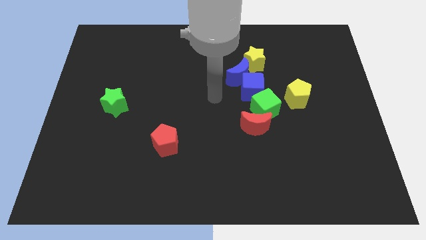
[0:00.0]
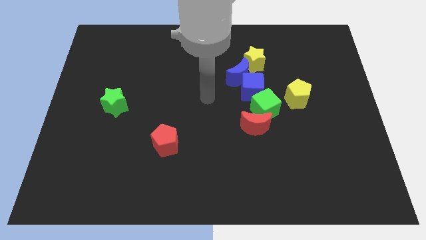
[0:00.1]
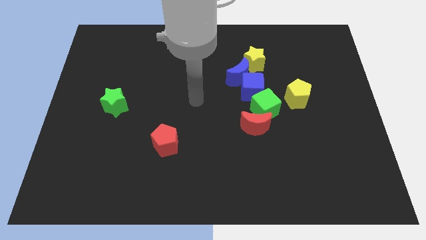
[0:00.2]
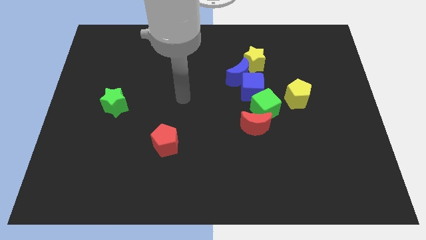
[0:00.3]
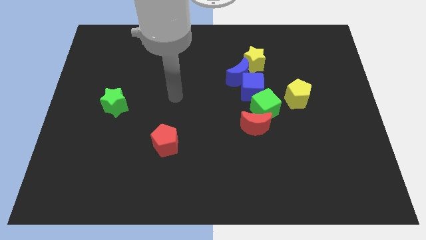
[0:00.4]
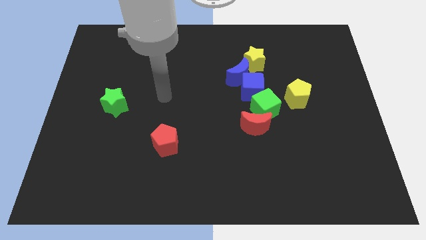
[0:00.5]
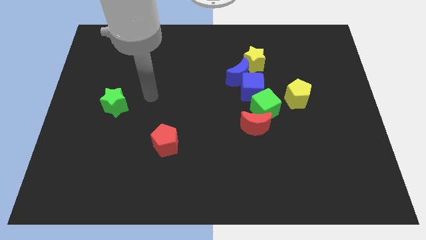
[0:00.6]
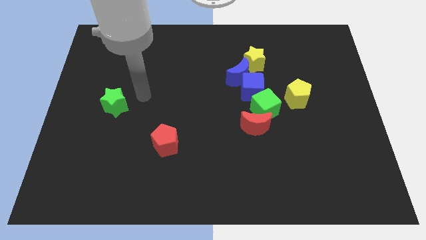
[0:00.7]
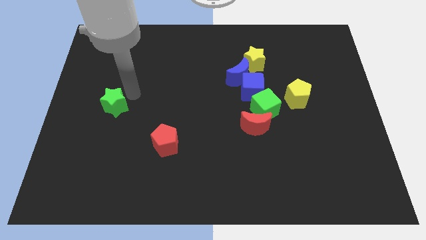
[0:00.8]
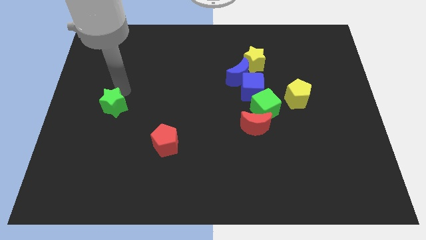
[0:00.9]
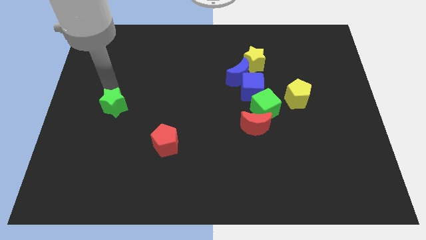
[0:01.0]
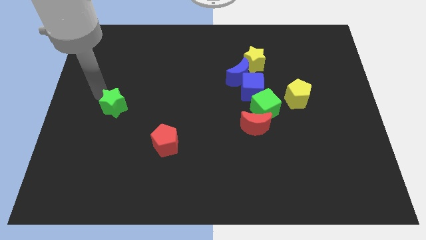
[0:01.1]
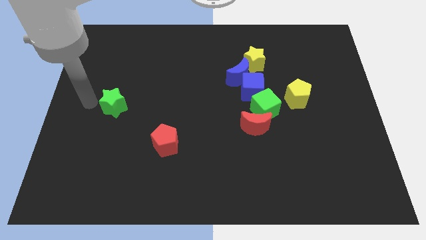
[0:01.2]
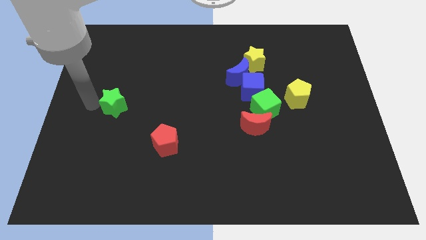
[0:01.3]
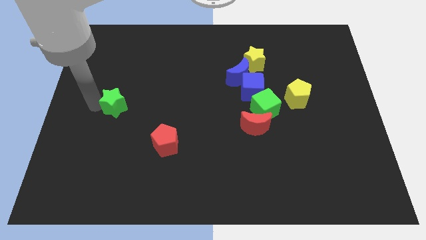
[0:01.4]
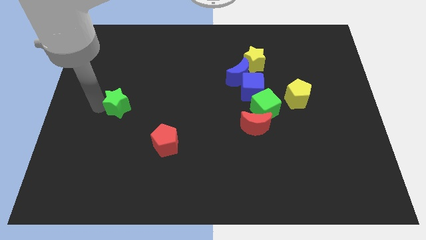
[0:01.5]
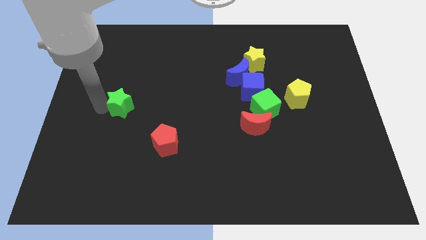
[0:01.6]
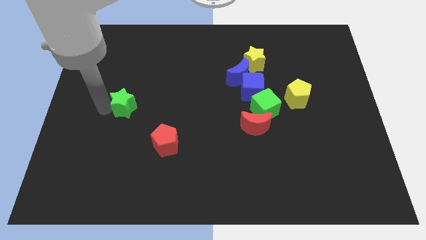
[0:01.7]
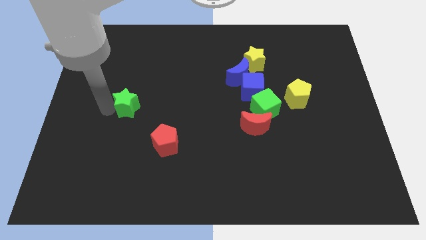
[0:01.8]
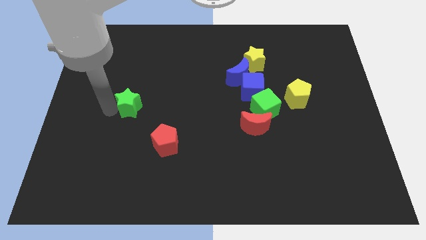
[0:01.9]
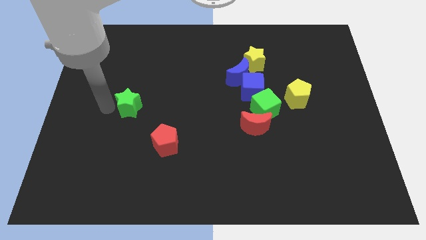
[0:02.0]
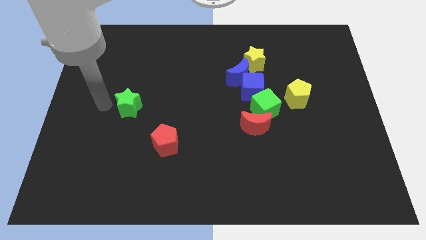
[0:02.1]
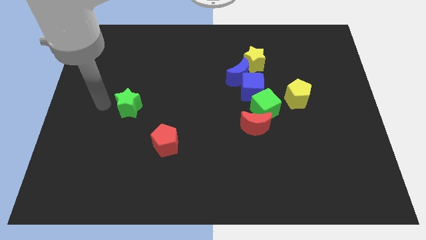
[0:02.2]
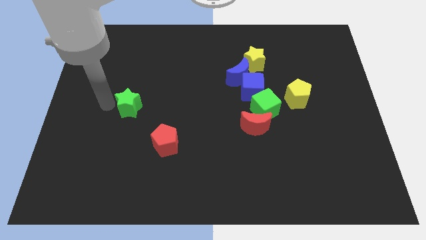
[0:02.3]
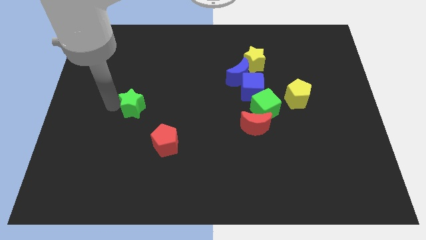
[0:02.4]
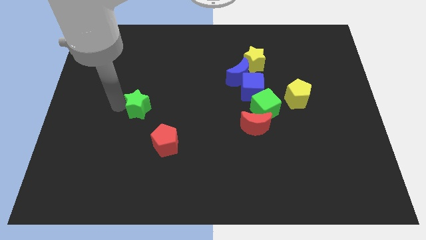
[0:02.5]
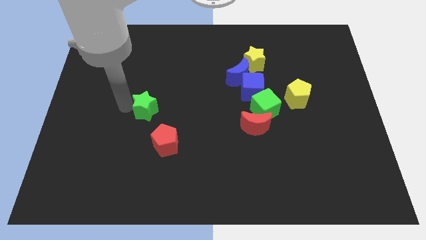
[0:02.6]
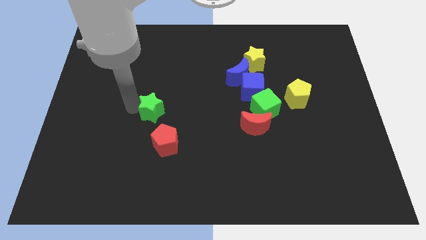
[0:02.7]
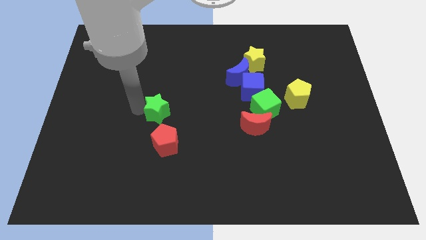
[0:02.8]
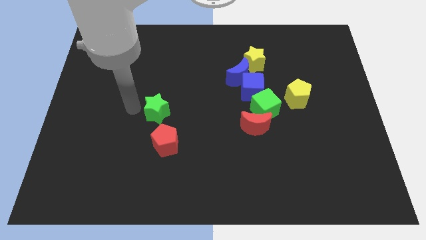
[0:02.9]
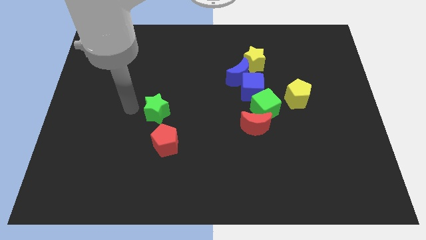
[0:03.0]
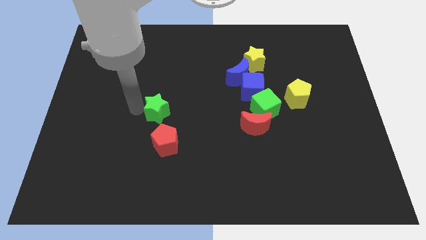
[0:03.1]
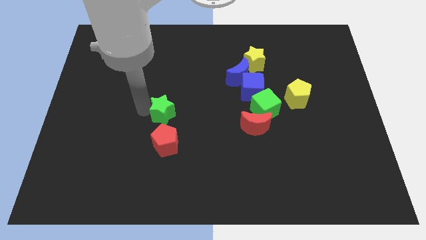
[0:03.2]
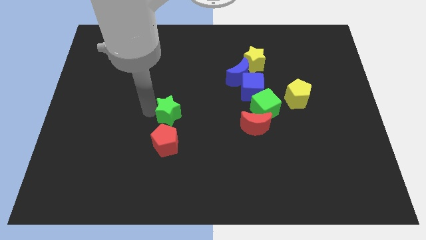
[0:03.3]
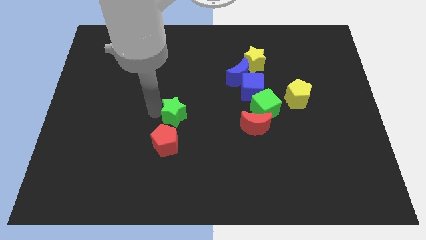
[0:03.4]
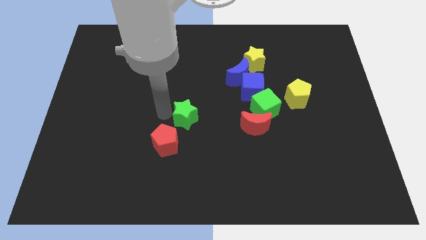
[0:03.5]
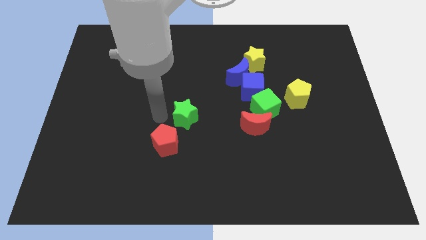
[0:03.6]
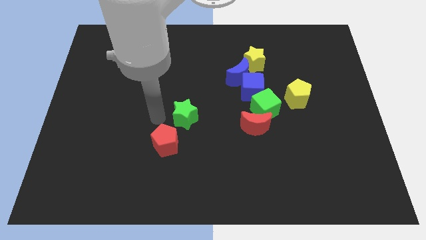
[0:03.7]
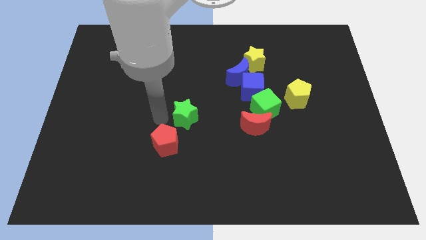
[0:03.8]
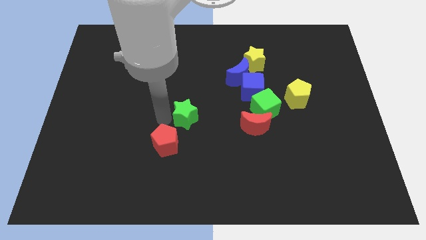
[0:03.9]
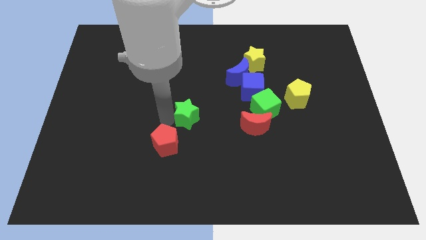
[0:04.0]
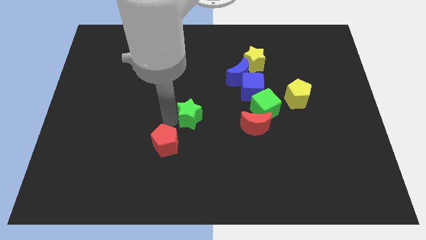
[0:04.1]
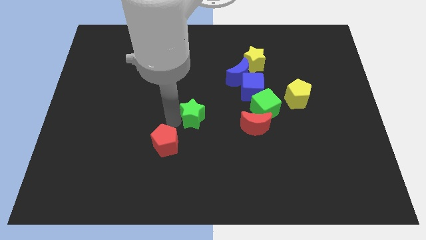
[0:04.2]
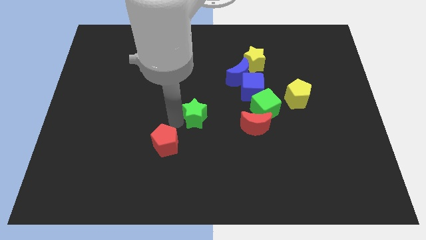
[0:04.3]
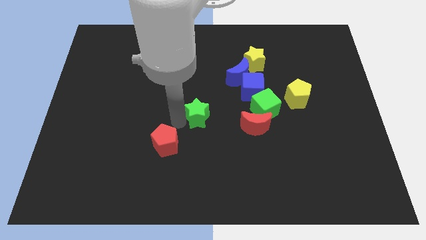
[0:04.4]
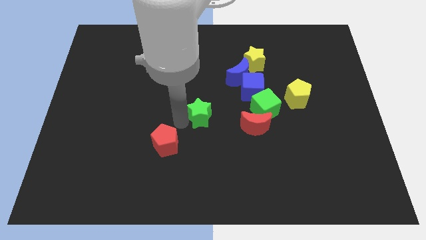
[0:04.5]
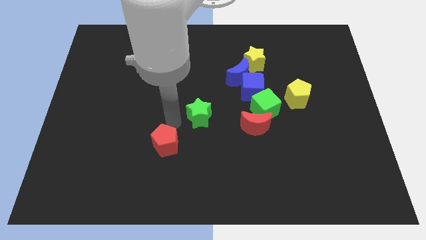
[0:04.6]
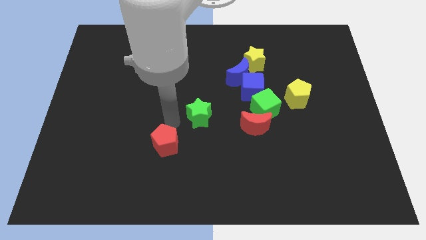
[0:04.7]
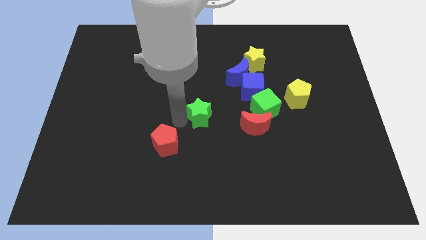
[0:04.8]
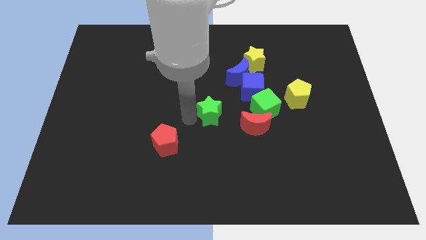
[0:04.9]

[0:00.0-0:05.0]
put the green star to the top left side of the red moon

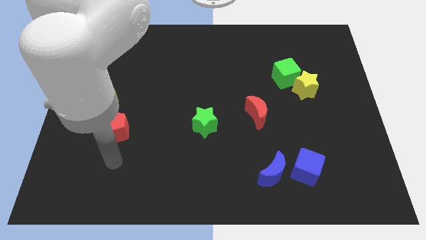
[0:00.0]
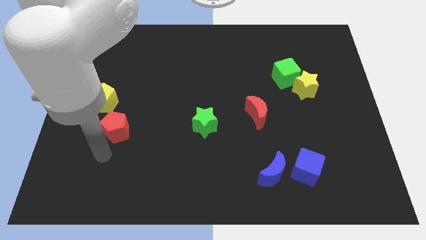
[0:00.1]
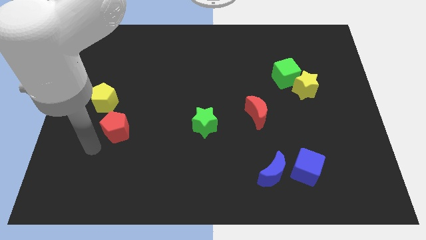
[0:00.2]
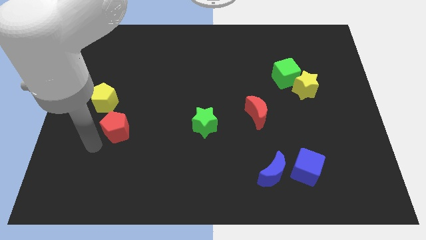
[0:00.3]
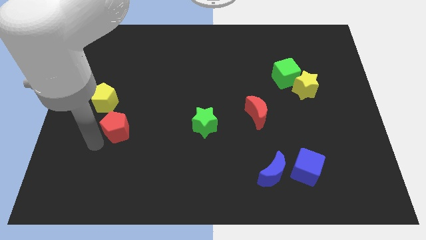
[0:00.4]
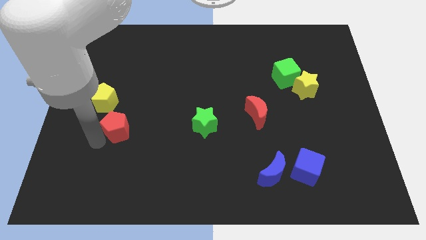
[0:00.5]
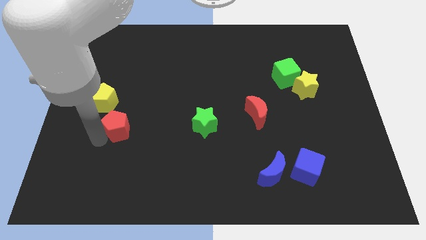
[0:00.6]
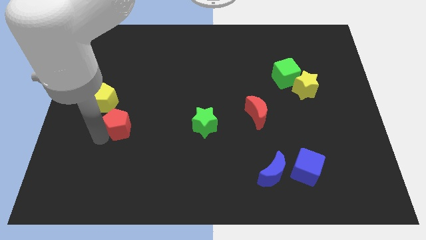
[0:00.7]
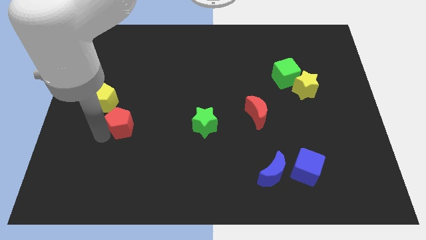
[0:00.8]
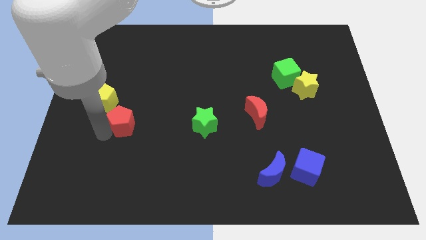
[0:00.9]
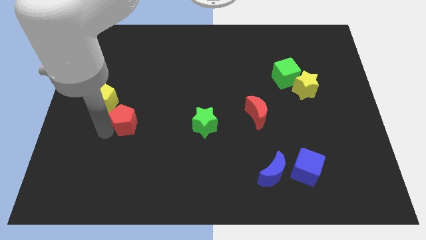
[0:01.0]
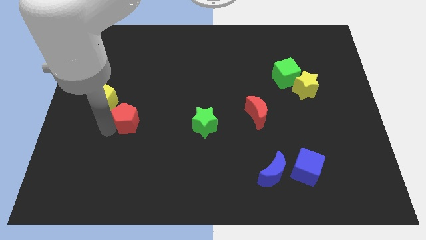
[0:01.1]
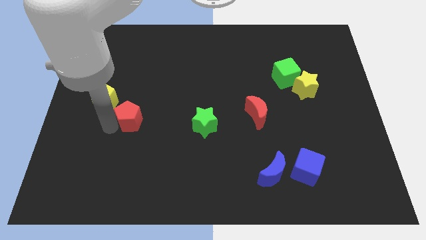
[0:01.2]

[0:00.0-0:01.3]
put the red pentagon to the right of the yellow pentagon

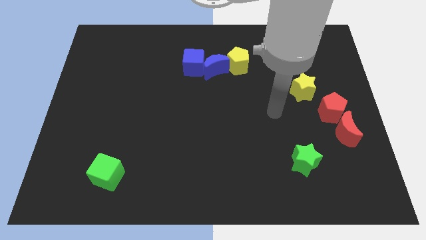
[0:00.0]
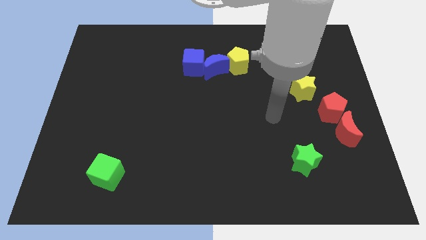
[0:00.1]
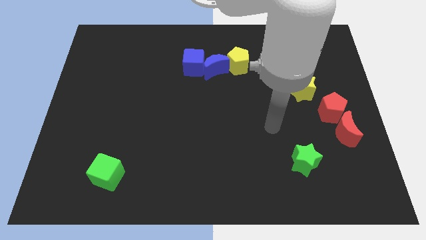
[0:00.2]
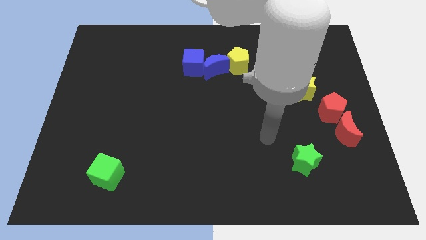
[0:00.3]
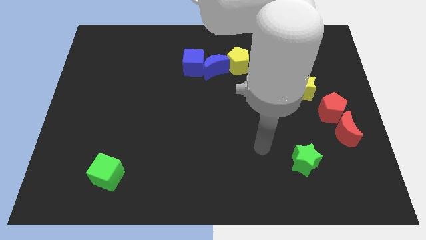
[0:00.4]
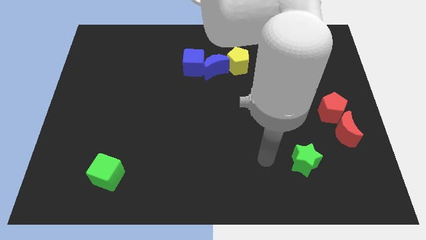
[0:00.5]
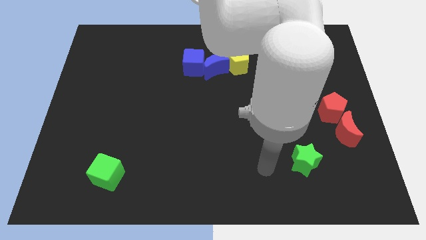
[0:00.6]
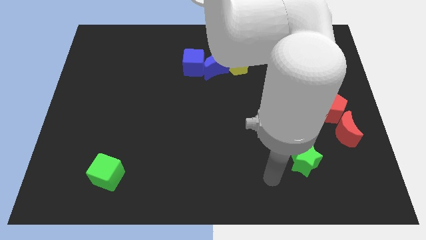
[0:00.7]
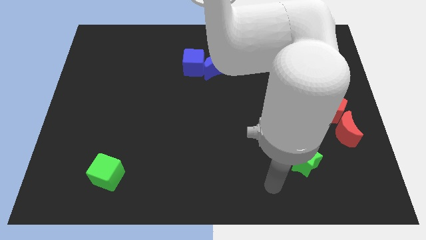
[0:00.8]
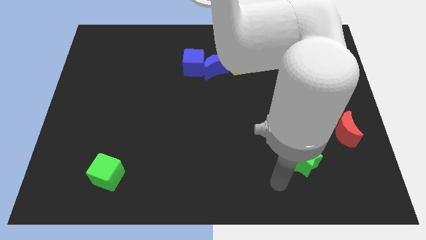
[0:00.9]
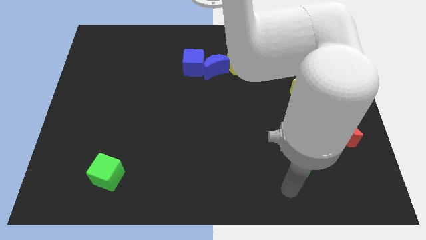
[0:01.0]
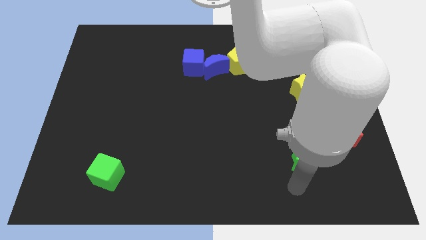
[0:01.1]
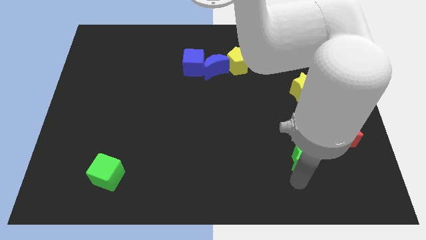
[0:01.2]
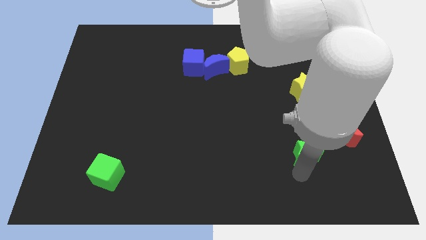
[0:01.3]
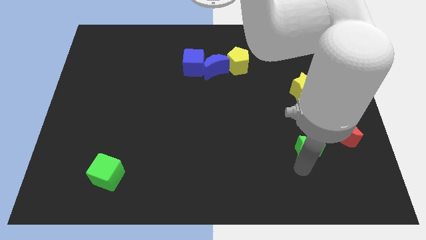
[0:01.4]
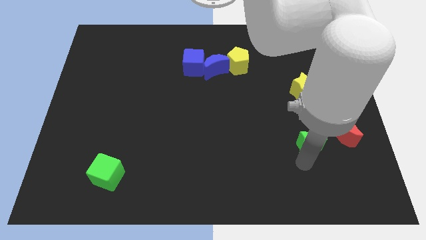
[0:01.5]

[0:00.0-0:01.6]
put the green star below the yellow star
